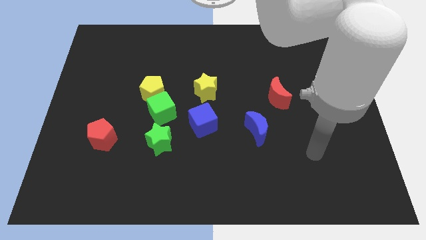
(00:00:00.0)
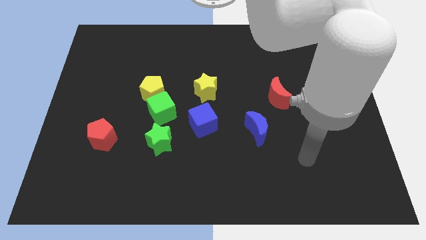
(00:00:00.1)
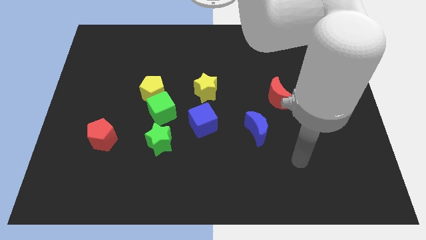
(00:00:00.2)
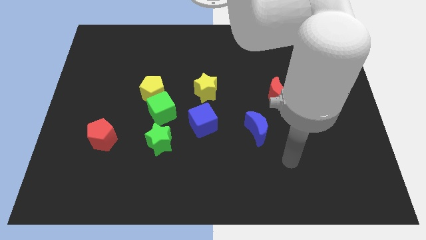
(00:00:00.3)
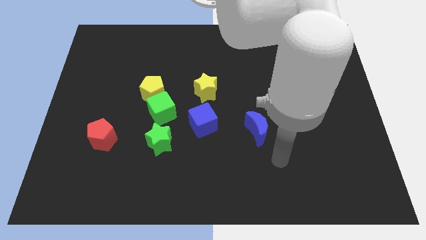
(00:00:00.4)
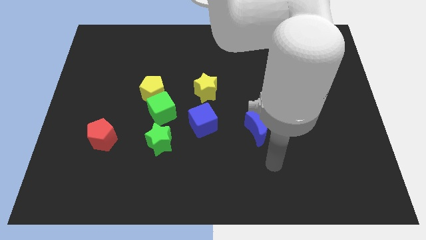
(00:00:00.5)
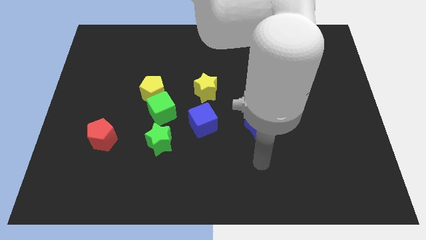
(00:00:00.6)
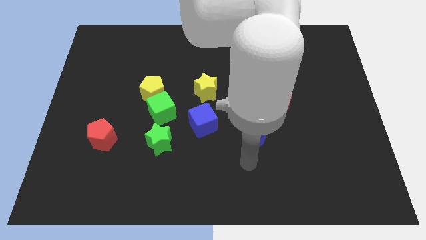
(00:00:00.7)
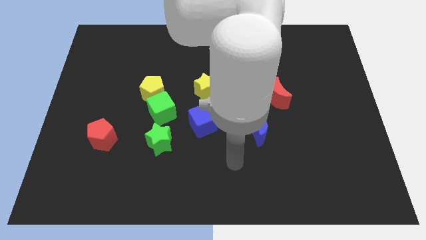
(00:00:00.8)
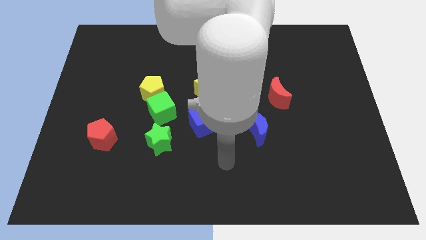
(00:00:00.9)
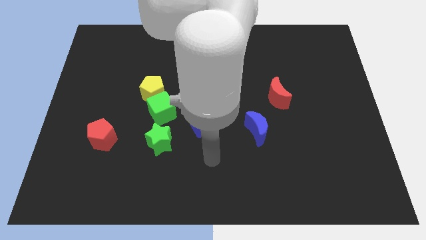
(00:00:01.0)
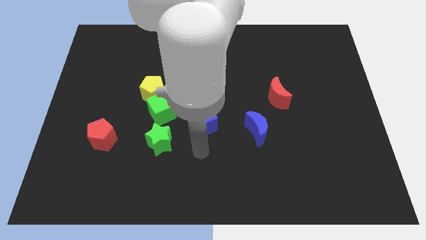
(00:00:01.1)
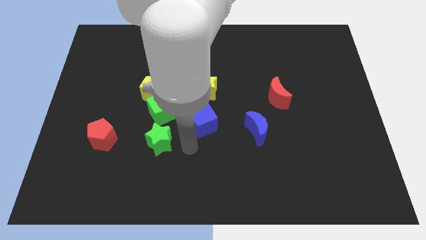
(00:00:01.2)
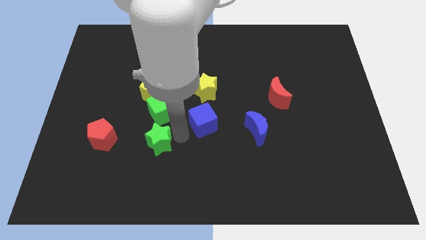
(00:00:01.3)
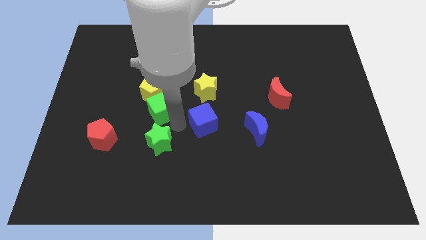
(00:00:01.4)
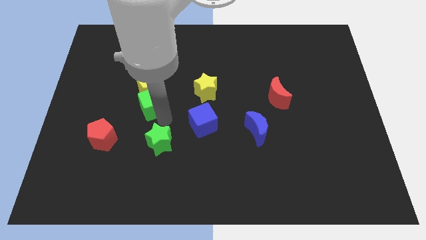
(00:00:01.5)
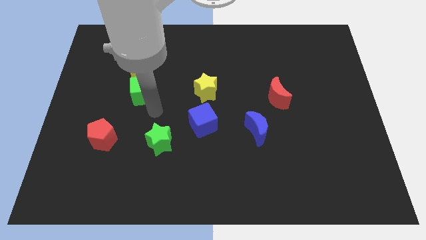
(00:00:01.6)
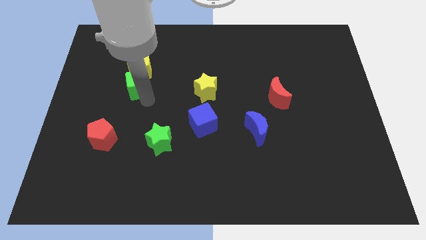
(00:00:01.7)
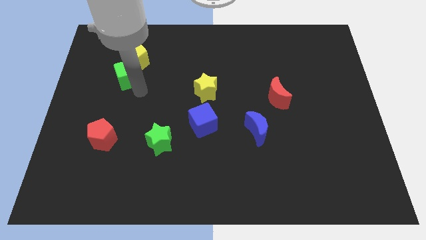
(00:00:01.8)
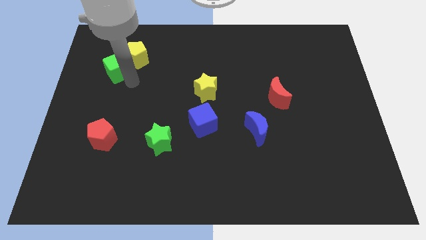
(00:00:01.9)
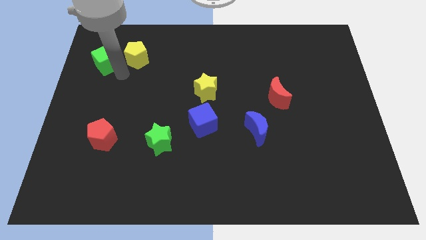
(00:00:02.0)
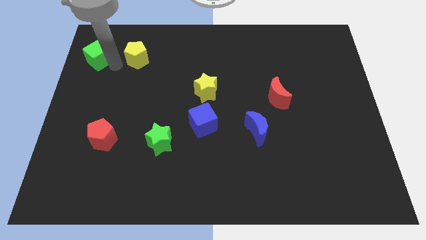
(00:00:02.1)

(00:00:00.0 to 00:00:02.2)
separate the yellow pentagon from the green cube

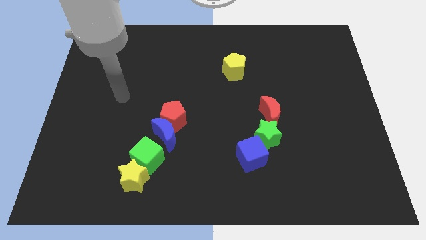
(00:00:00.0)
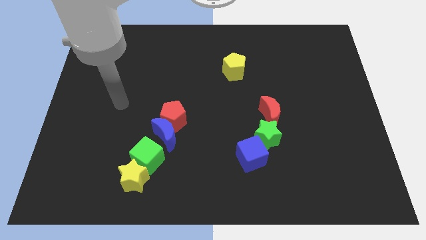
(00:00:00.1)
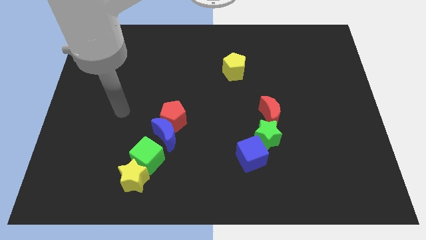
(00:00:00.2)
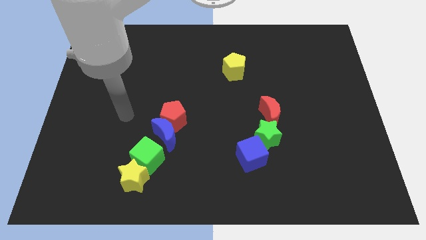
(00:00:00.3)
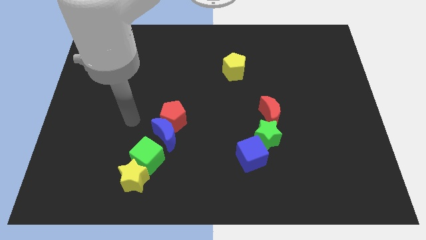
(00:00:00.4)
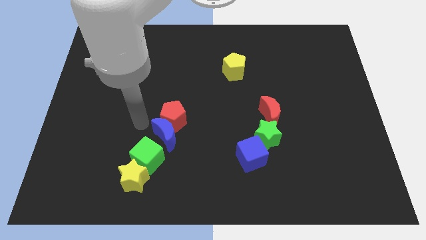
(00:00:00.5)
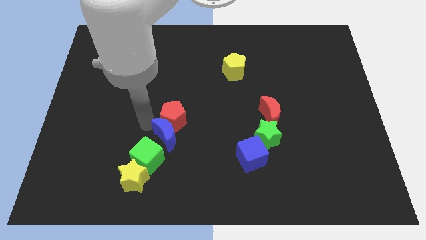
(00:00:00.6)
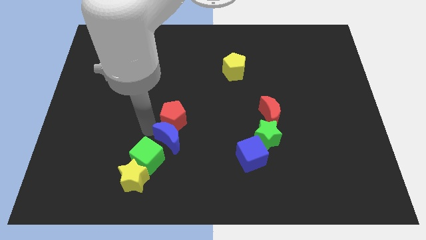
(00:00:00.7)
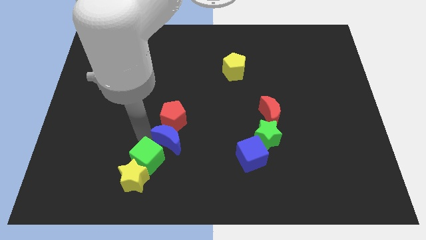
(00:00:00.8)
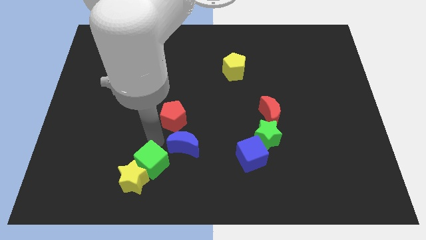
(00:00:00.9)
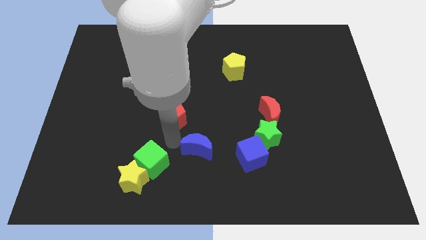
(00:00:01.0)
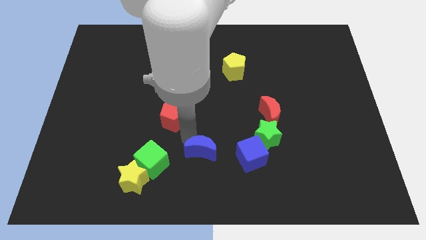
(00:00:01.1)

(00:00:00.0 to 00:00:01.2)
separate the red pentagon from the blue moon

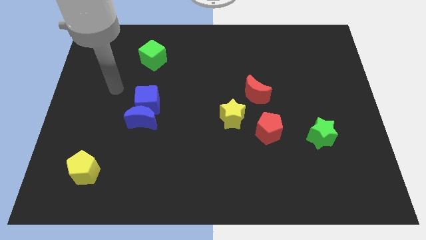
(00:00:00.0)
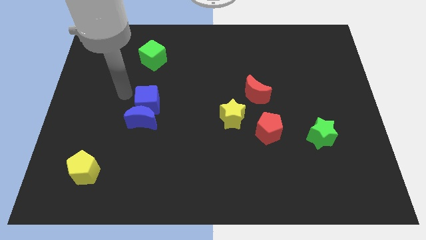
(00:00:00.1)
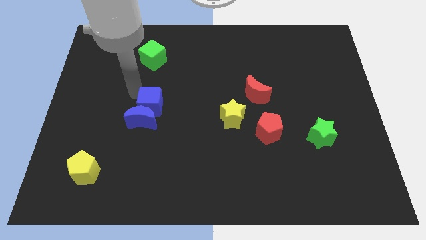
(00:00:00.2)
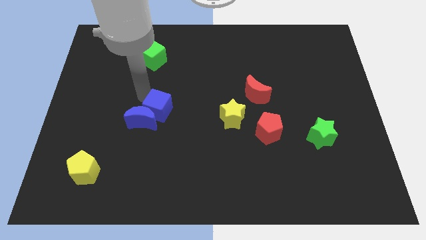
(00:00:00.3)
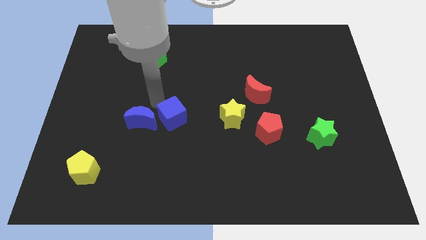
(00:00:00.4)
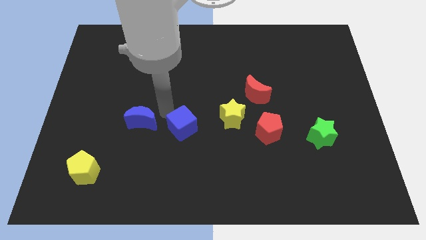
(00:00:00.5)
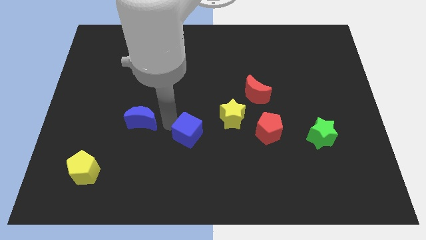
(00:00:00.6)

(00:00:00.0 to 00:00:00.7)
pull the blue moon apart from the blue cube

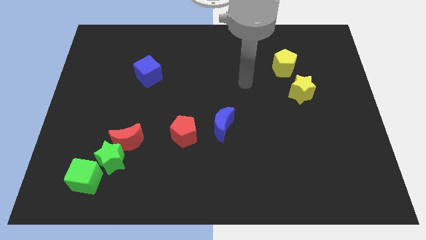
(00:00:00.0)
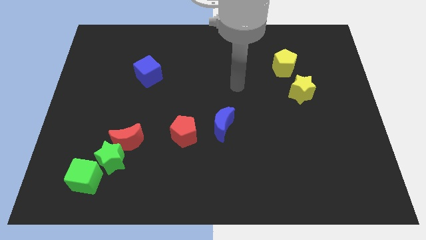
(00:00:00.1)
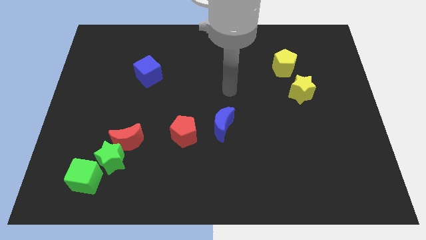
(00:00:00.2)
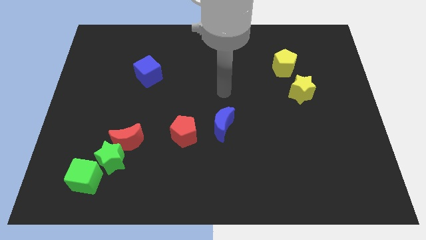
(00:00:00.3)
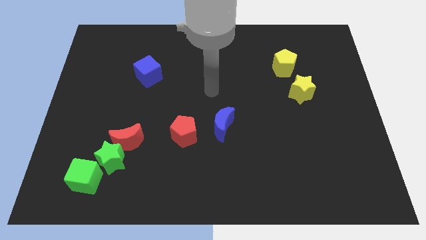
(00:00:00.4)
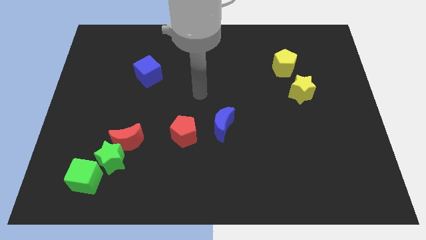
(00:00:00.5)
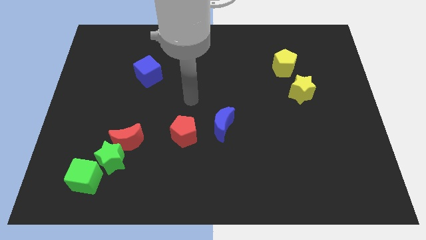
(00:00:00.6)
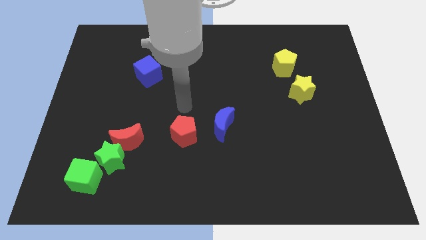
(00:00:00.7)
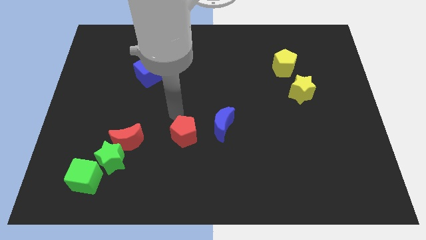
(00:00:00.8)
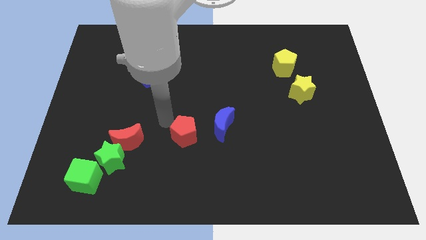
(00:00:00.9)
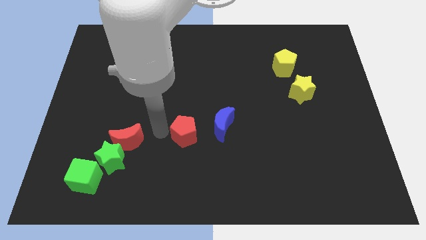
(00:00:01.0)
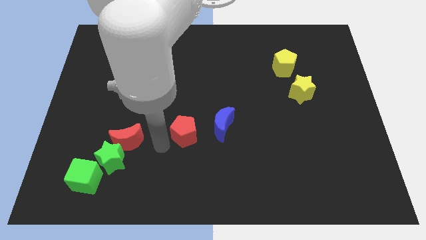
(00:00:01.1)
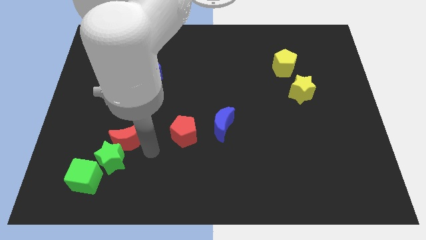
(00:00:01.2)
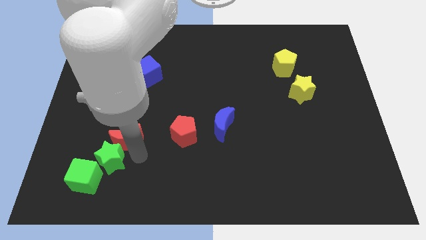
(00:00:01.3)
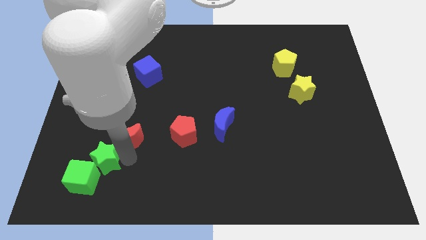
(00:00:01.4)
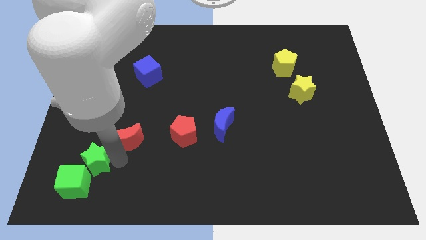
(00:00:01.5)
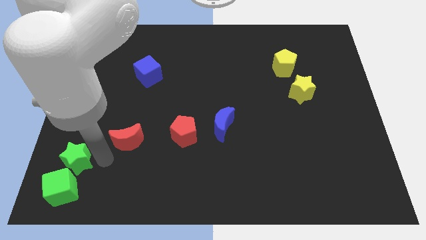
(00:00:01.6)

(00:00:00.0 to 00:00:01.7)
separate the red moon from the green star

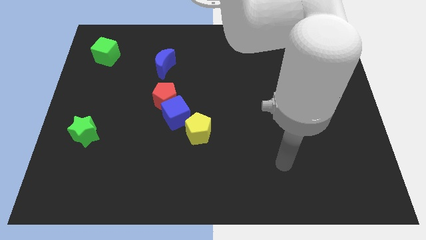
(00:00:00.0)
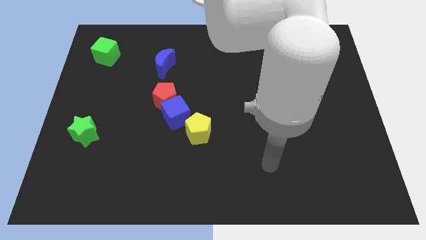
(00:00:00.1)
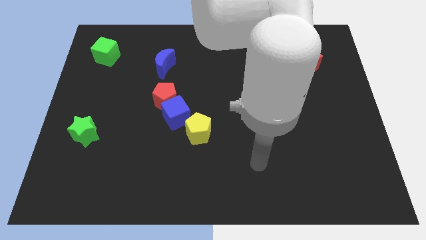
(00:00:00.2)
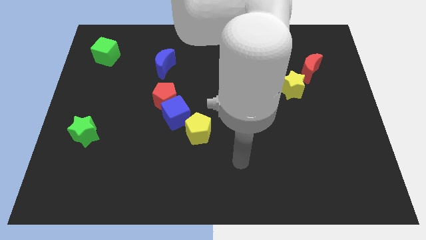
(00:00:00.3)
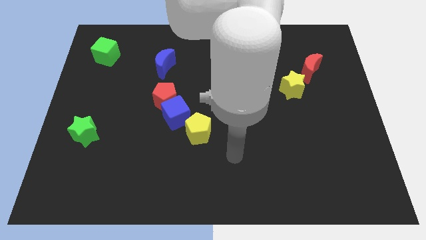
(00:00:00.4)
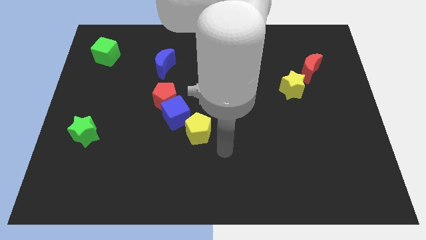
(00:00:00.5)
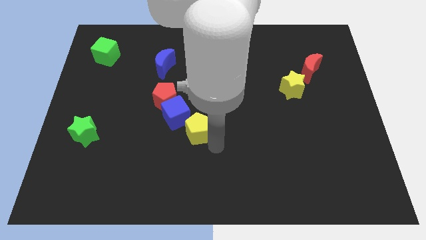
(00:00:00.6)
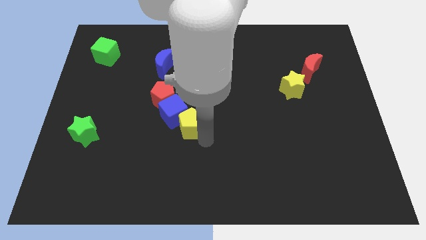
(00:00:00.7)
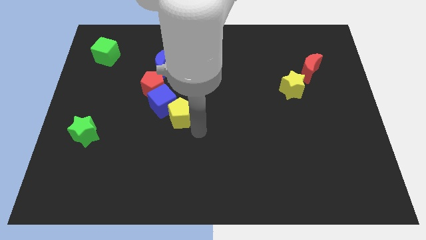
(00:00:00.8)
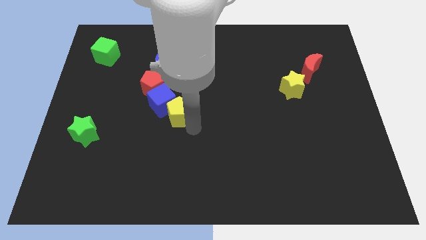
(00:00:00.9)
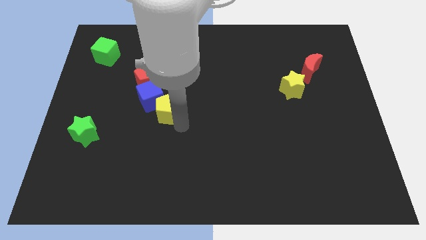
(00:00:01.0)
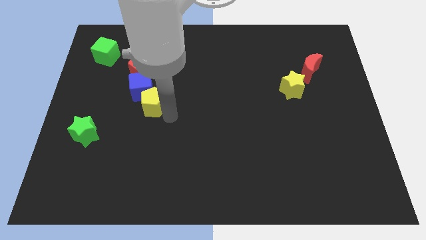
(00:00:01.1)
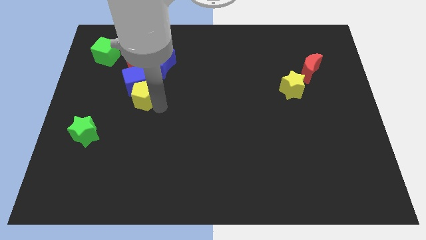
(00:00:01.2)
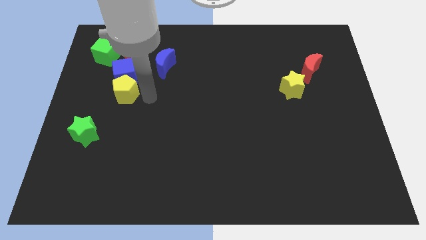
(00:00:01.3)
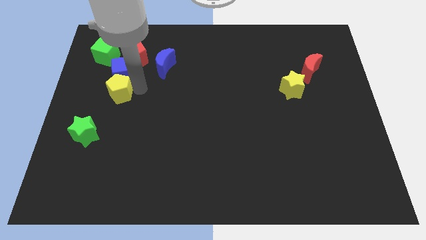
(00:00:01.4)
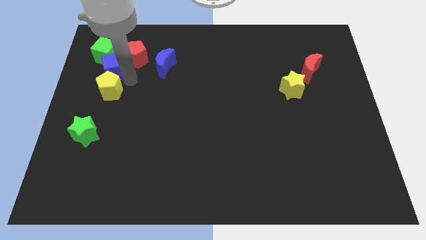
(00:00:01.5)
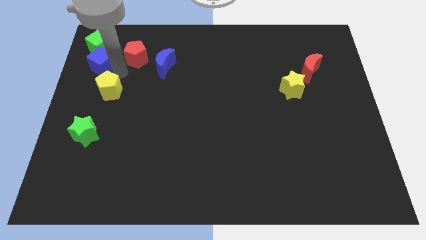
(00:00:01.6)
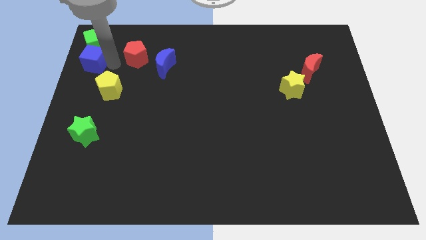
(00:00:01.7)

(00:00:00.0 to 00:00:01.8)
pull the red pentagon apart from the blue cube

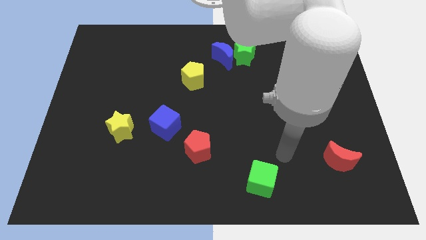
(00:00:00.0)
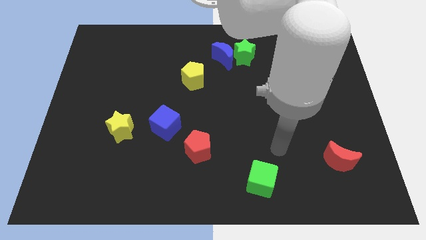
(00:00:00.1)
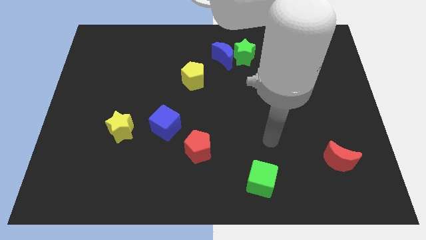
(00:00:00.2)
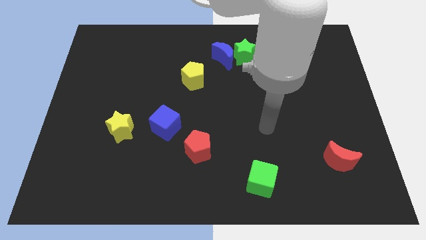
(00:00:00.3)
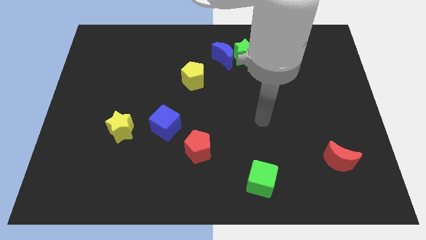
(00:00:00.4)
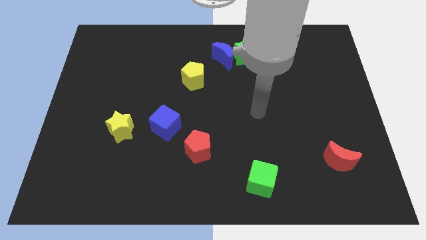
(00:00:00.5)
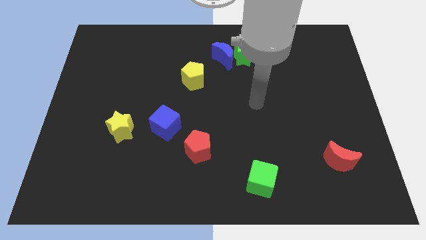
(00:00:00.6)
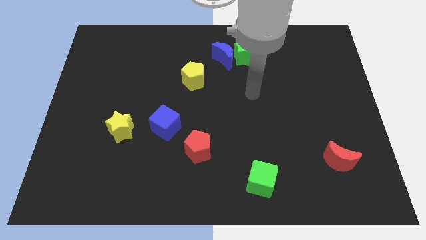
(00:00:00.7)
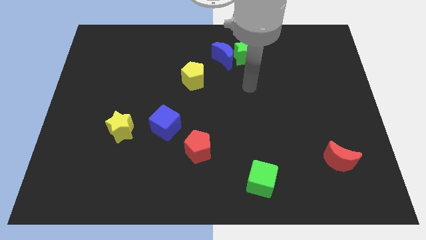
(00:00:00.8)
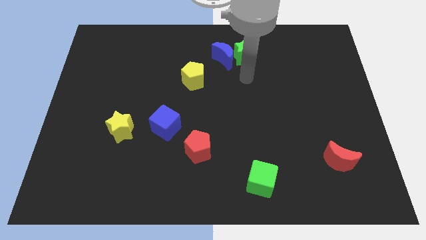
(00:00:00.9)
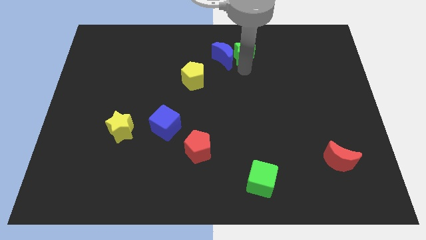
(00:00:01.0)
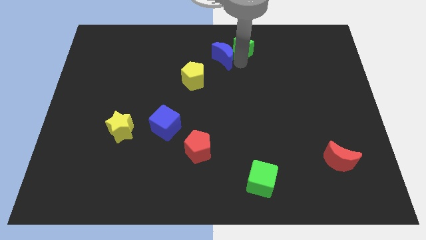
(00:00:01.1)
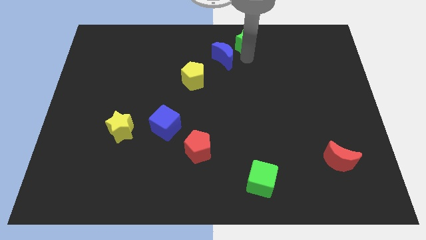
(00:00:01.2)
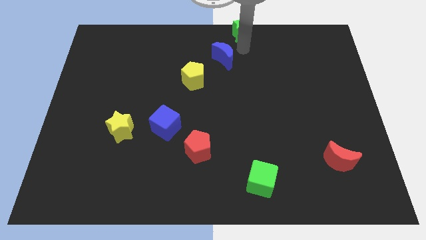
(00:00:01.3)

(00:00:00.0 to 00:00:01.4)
separate the blue moon from the green star

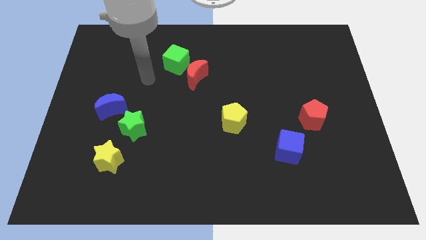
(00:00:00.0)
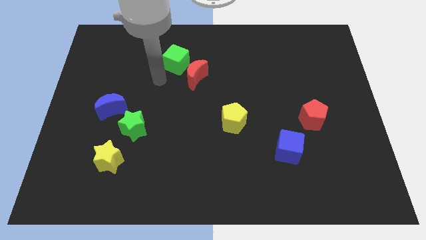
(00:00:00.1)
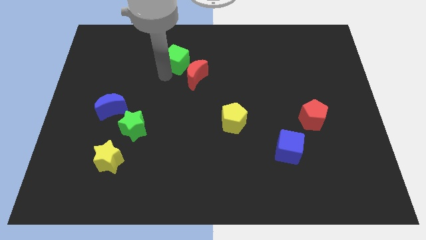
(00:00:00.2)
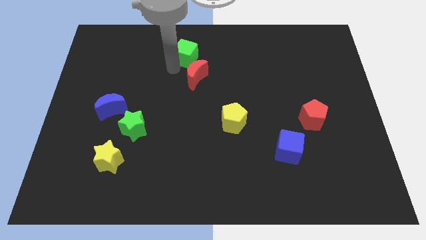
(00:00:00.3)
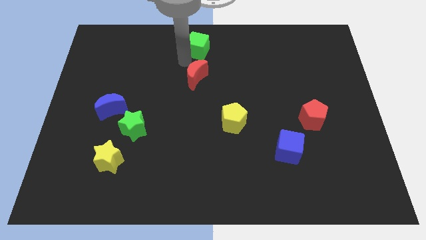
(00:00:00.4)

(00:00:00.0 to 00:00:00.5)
separate the red moon from the green cube
